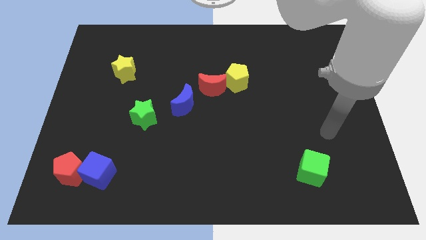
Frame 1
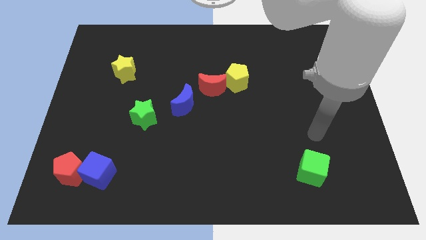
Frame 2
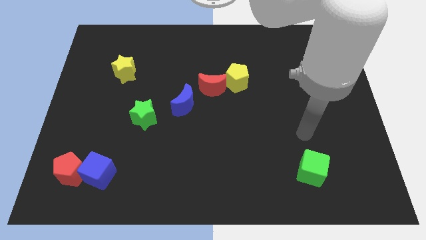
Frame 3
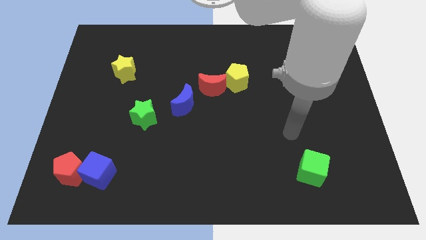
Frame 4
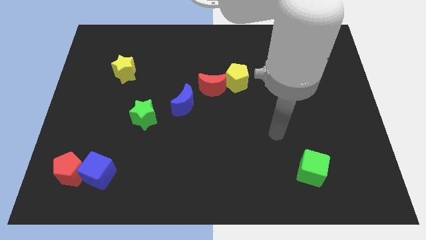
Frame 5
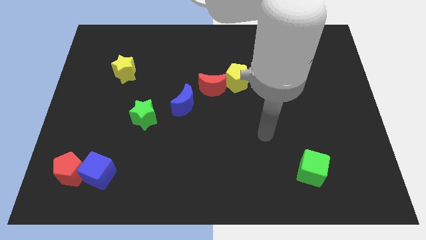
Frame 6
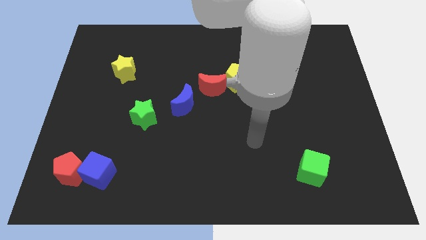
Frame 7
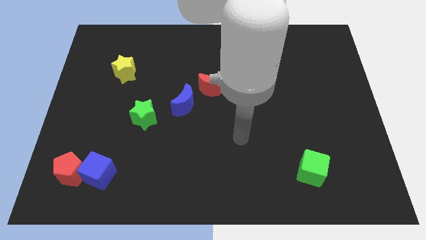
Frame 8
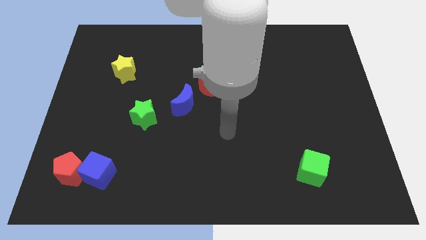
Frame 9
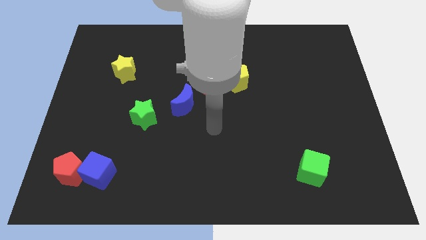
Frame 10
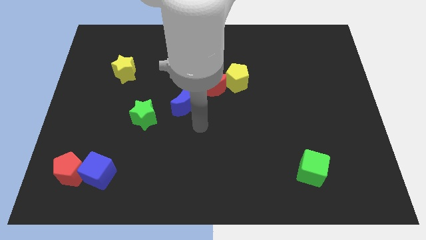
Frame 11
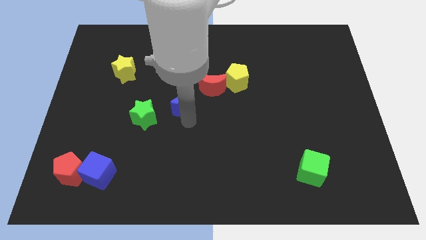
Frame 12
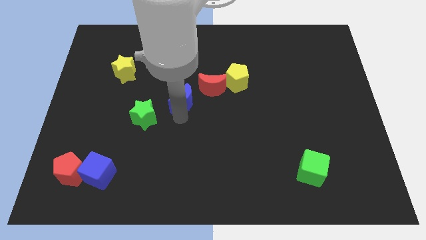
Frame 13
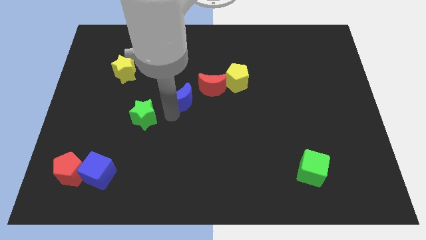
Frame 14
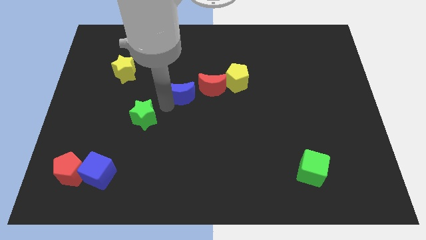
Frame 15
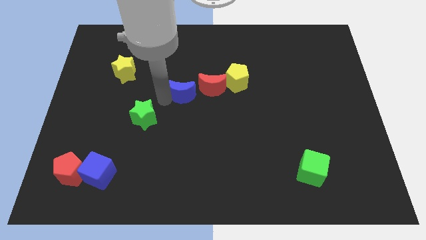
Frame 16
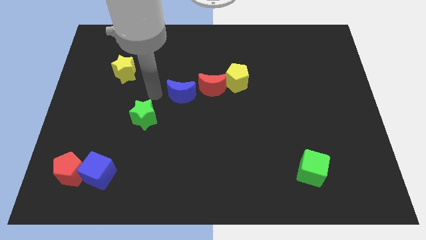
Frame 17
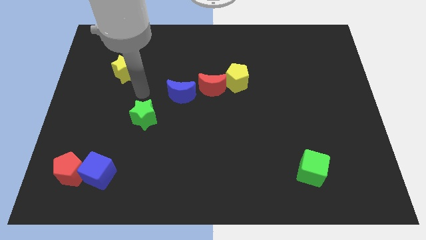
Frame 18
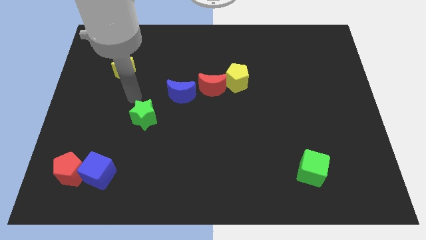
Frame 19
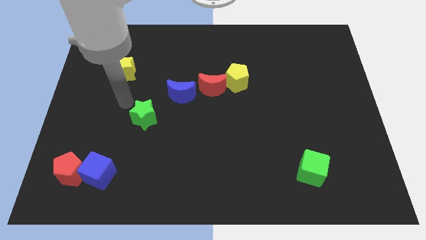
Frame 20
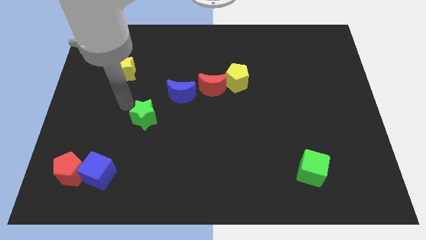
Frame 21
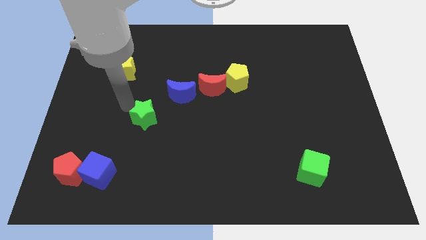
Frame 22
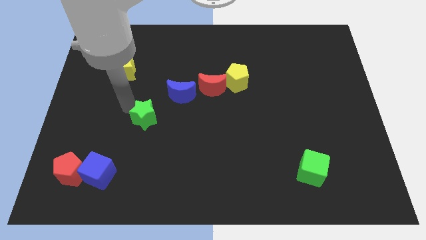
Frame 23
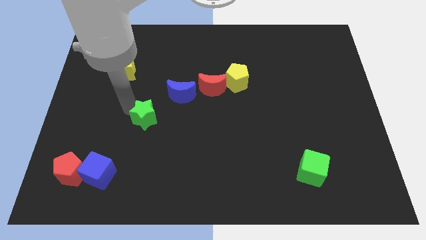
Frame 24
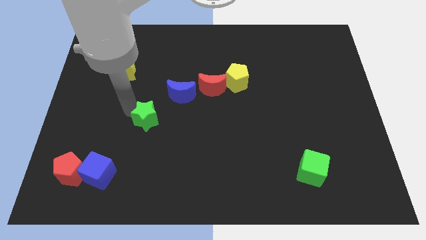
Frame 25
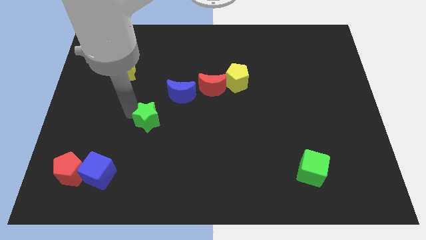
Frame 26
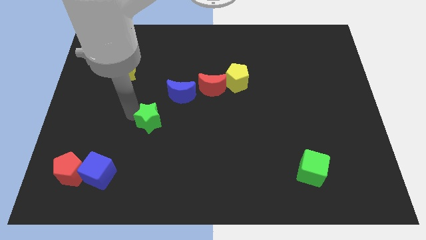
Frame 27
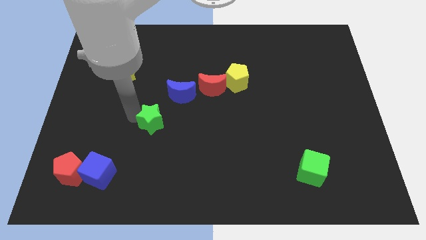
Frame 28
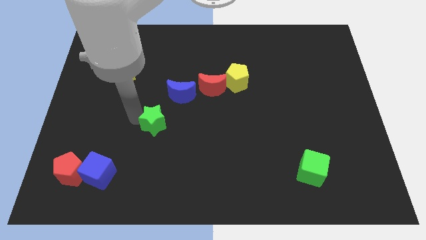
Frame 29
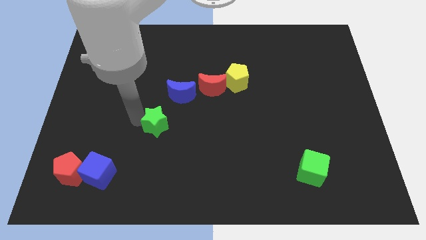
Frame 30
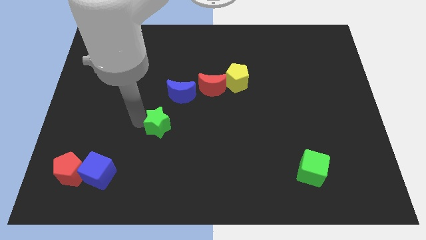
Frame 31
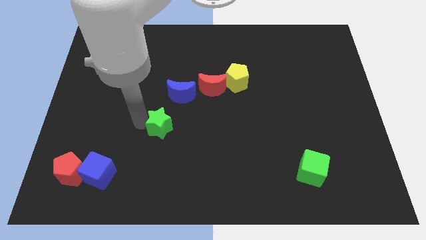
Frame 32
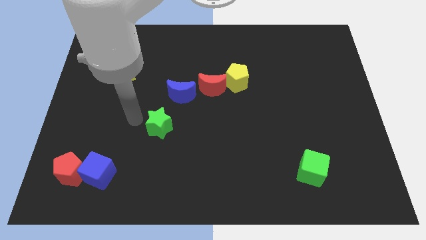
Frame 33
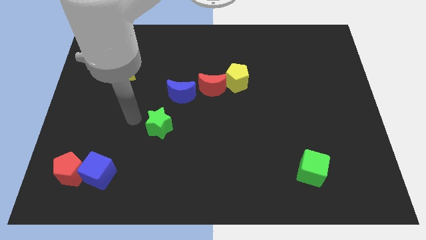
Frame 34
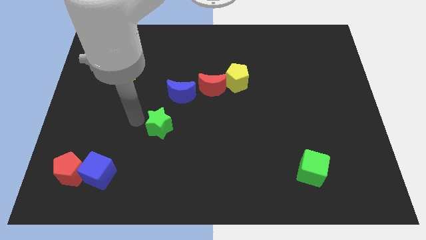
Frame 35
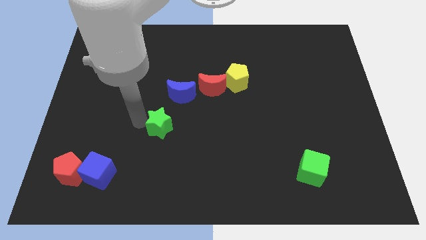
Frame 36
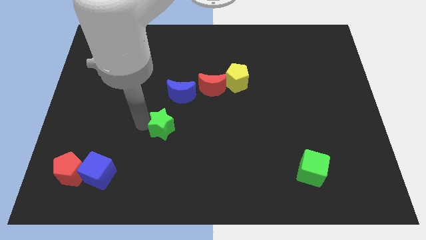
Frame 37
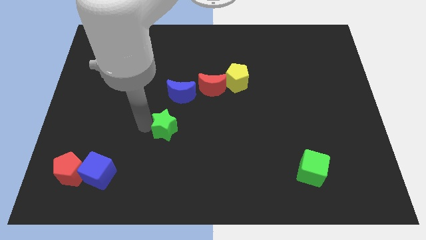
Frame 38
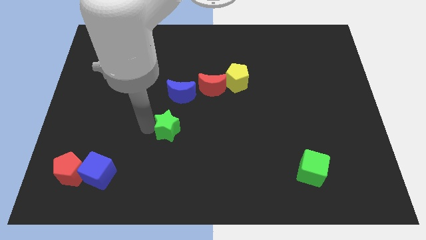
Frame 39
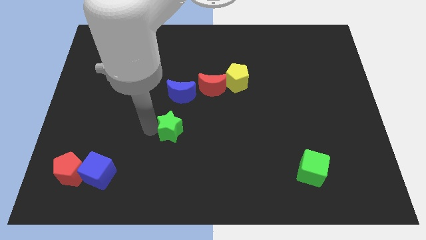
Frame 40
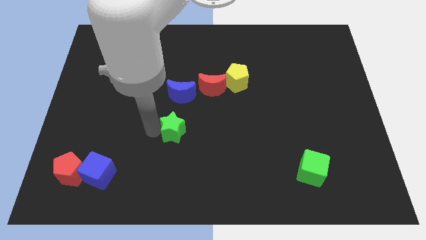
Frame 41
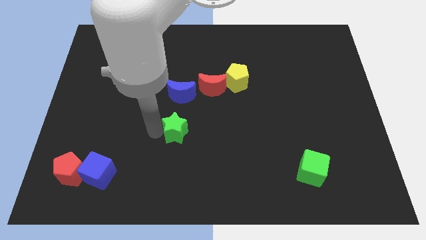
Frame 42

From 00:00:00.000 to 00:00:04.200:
slightly slide the green star to the right

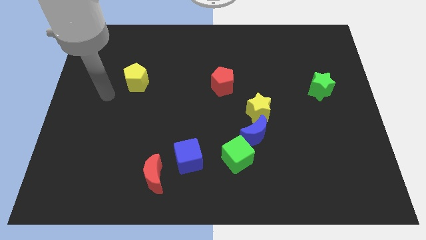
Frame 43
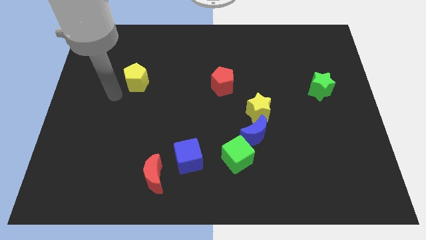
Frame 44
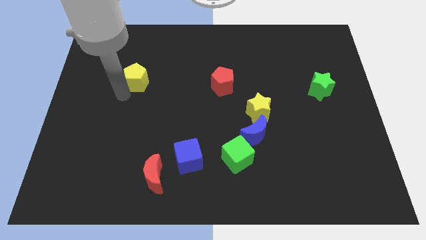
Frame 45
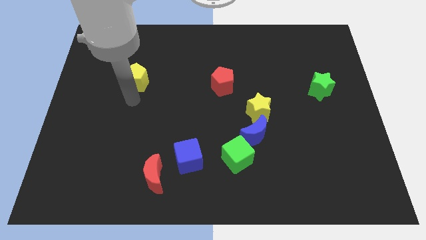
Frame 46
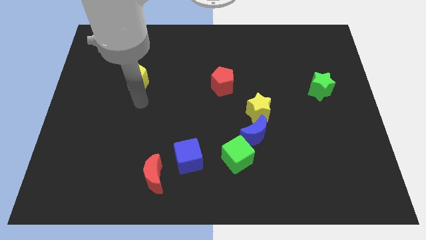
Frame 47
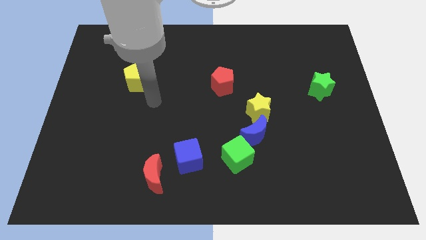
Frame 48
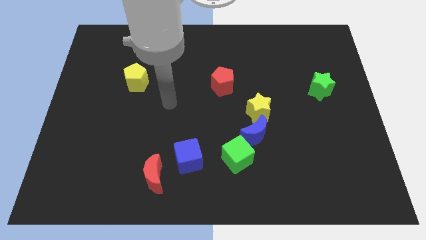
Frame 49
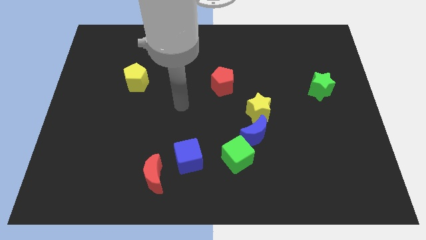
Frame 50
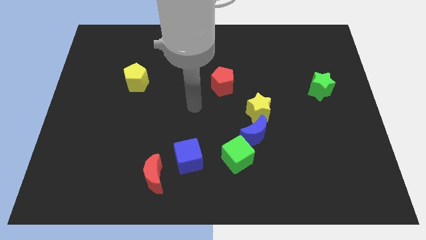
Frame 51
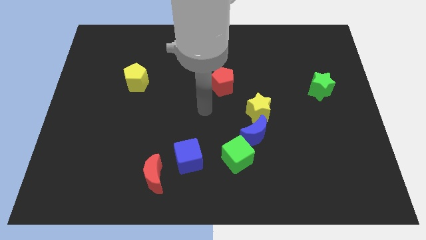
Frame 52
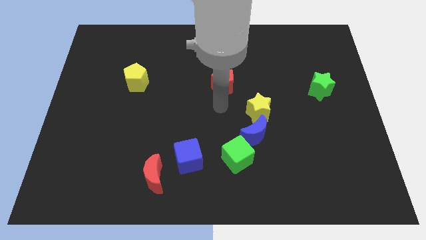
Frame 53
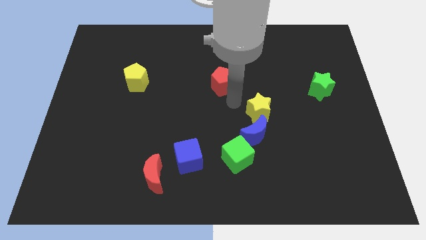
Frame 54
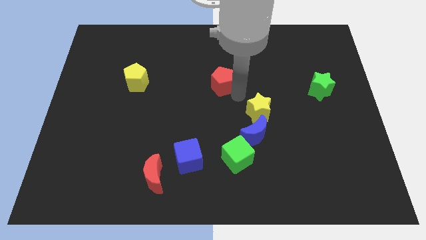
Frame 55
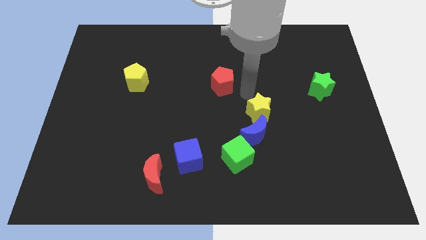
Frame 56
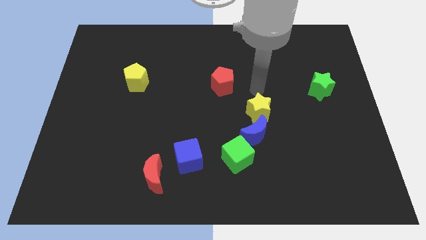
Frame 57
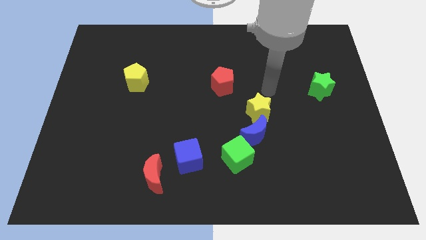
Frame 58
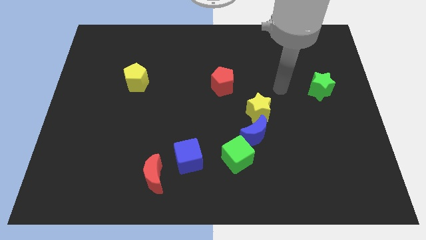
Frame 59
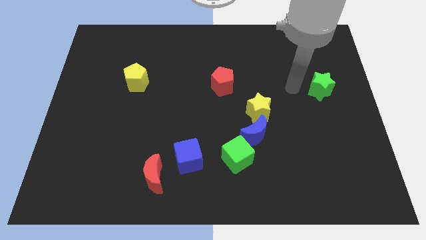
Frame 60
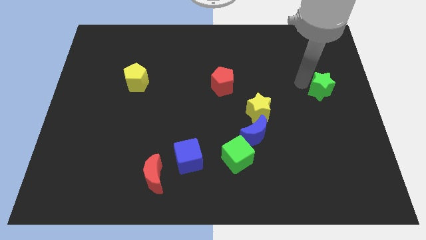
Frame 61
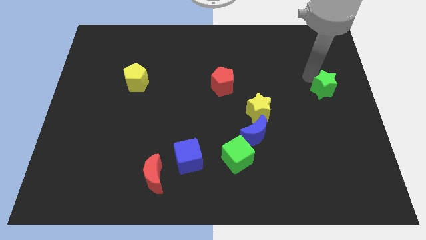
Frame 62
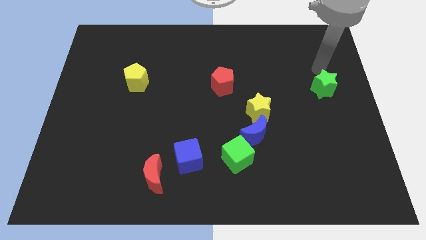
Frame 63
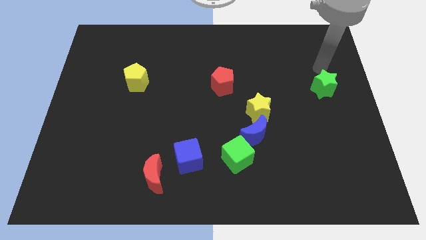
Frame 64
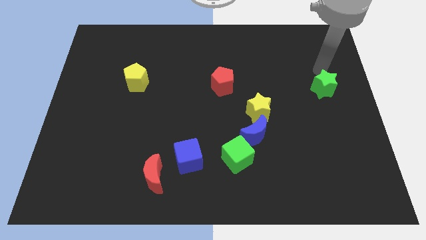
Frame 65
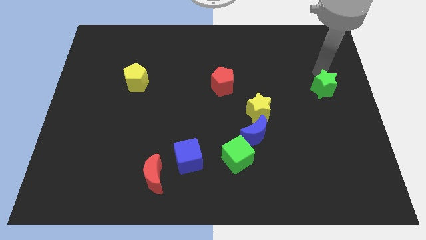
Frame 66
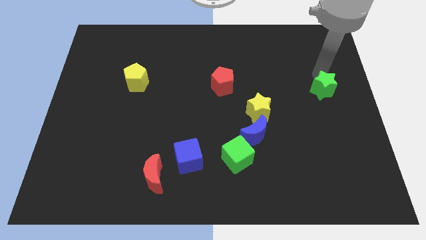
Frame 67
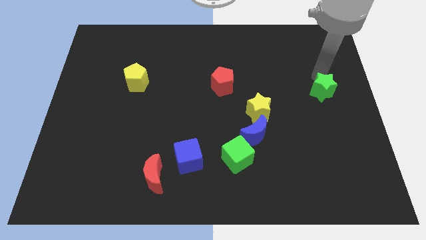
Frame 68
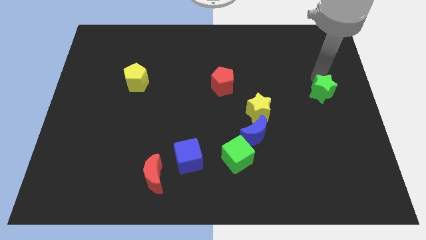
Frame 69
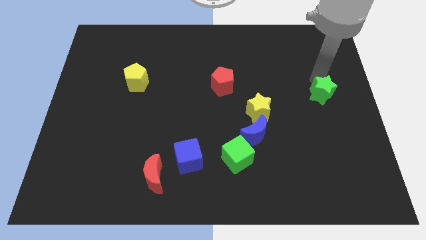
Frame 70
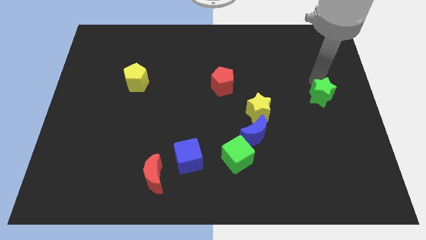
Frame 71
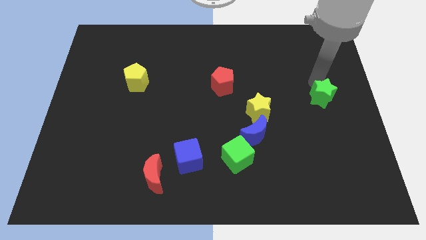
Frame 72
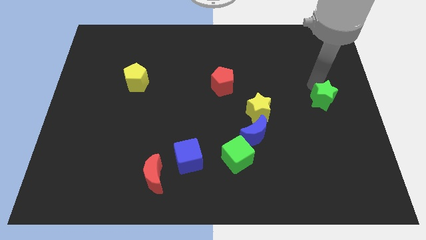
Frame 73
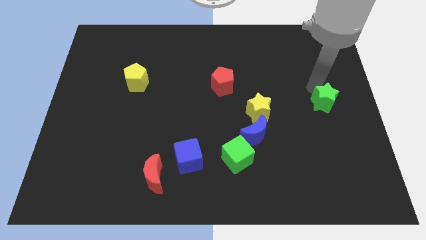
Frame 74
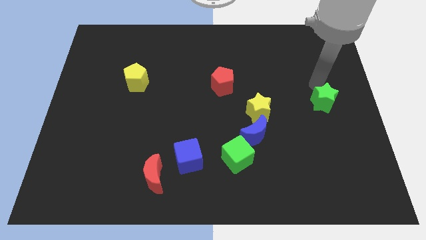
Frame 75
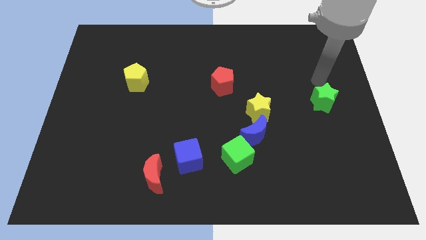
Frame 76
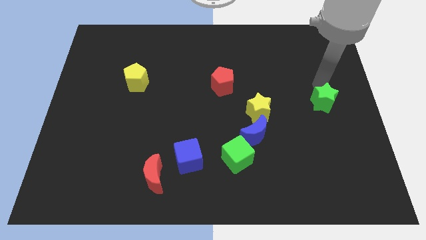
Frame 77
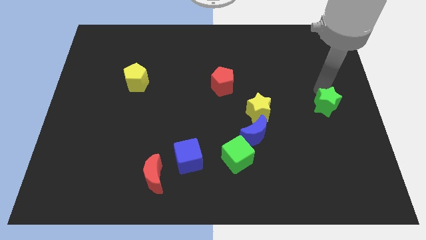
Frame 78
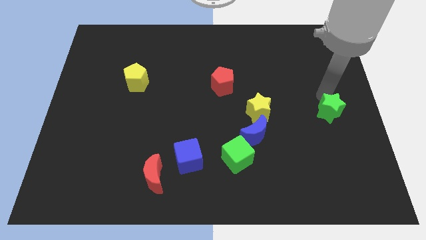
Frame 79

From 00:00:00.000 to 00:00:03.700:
slightly slide the green star down

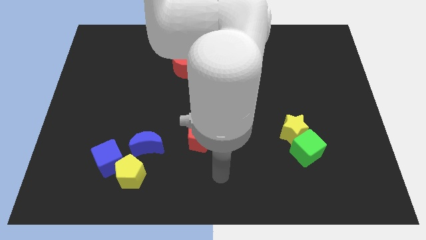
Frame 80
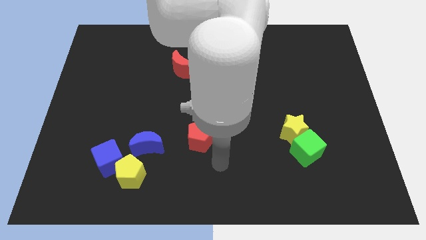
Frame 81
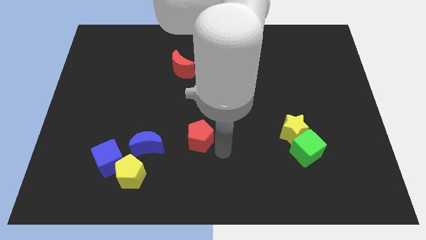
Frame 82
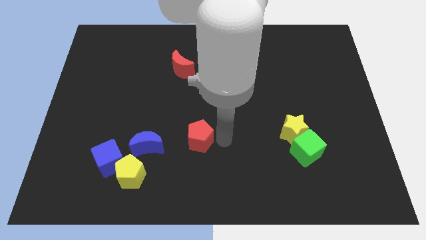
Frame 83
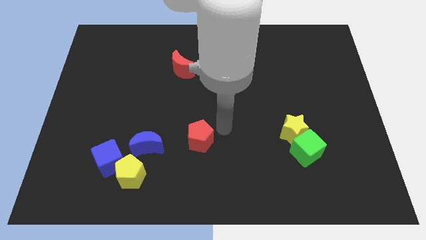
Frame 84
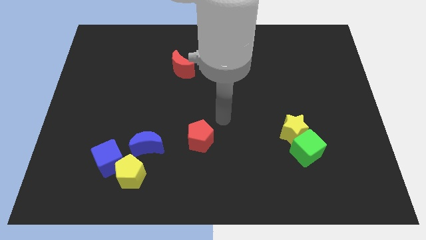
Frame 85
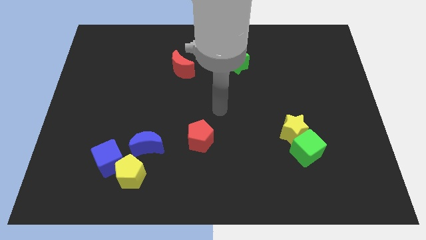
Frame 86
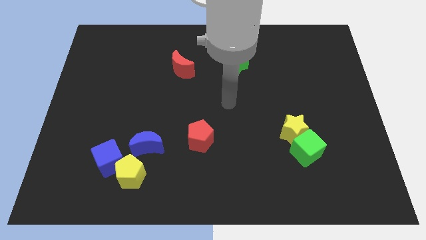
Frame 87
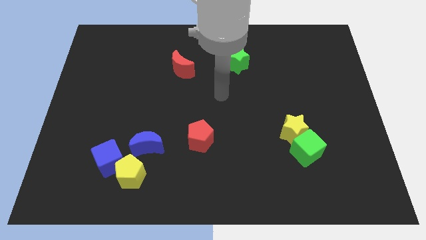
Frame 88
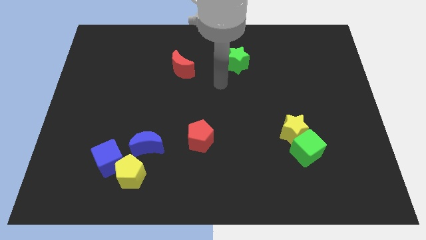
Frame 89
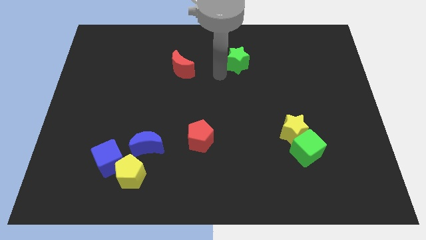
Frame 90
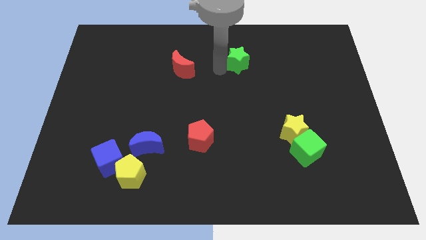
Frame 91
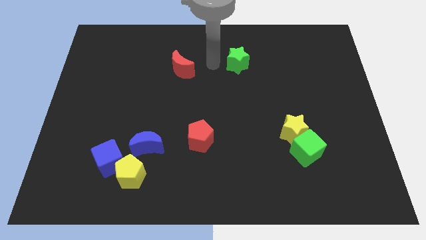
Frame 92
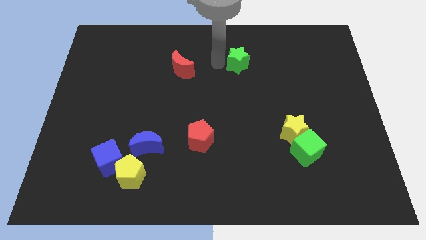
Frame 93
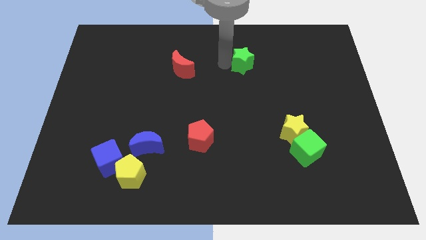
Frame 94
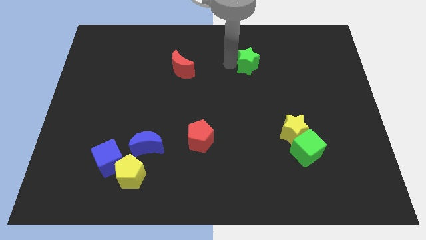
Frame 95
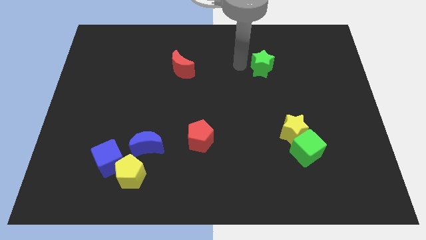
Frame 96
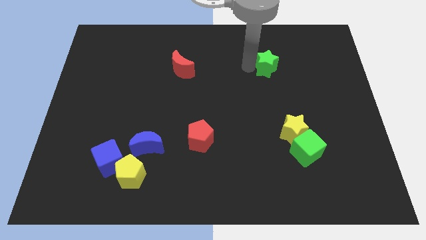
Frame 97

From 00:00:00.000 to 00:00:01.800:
slide the green star a little bit to the right
